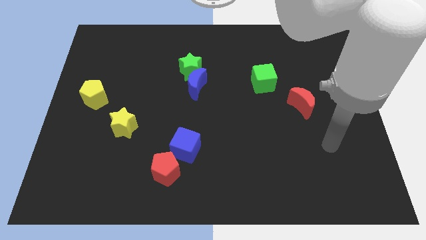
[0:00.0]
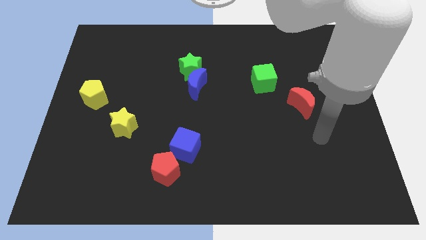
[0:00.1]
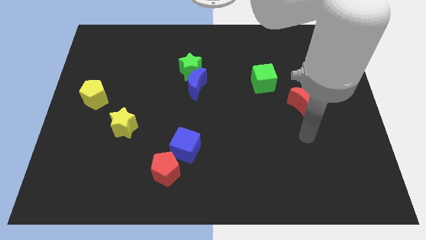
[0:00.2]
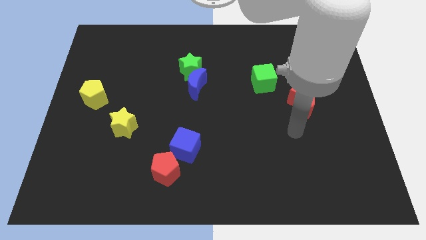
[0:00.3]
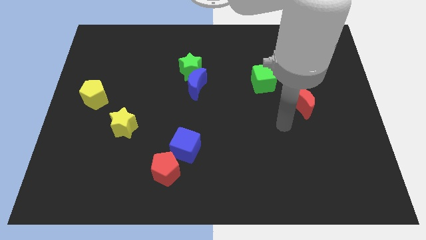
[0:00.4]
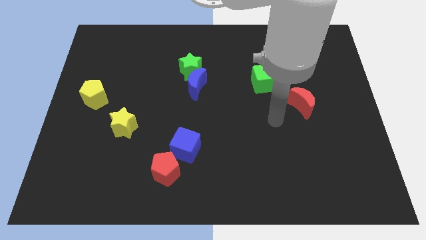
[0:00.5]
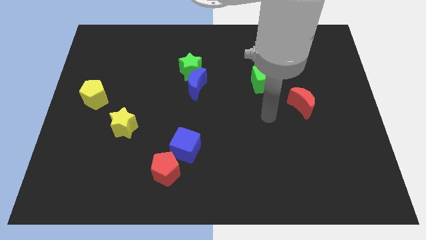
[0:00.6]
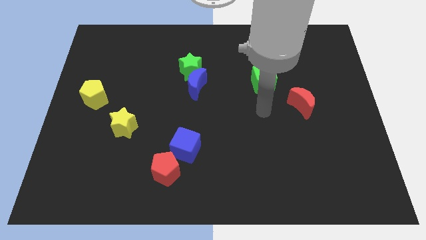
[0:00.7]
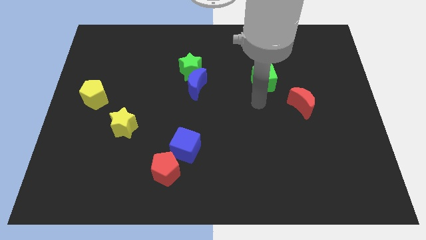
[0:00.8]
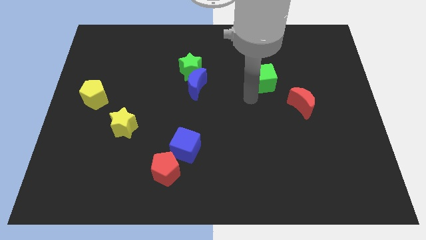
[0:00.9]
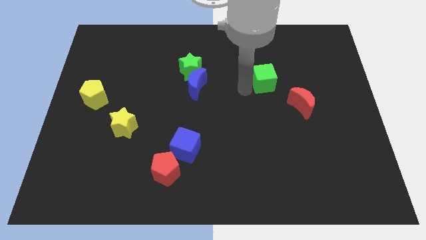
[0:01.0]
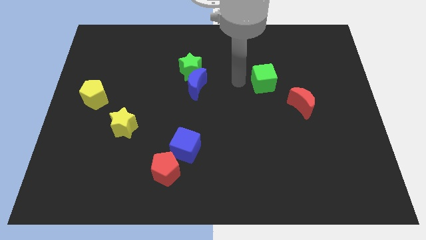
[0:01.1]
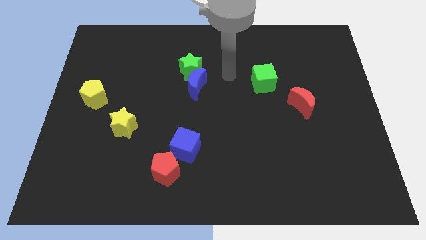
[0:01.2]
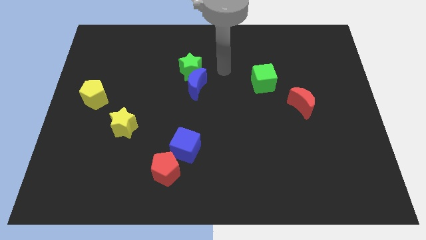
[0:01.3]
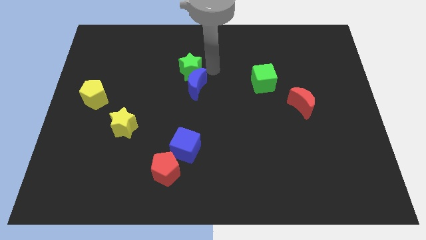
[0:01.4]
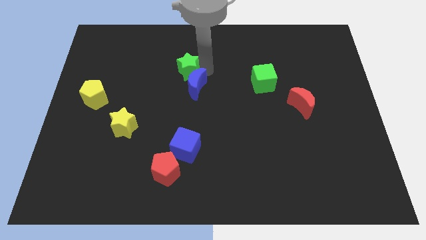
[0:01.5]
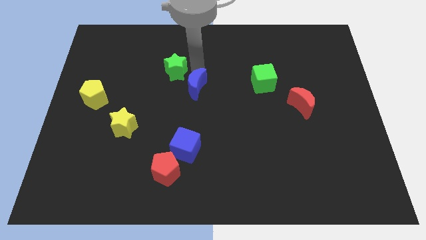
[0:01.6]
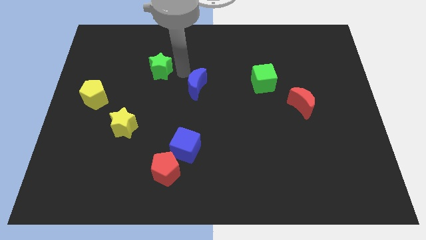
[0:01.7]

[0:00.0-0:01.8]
separate the blue moon from the green star

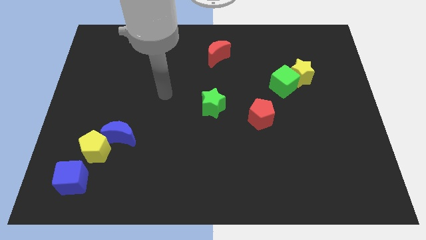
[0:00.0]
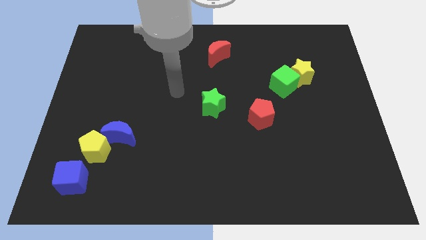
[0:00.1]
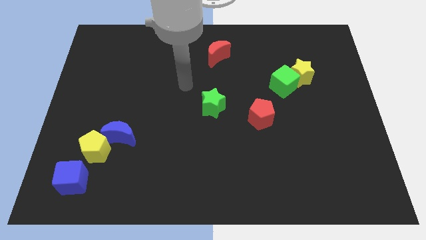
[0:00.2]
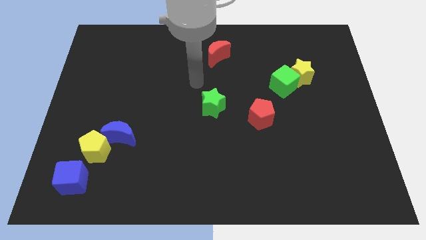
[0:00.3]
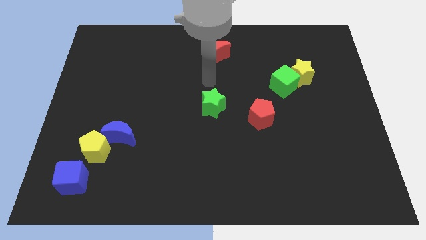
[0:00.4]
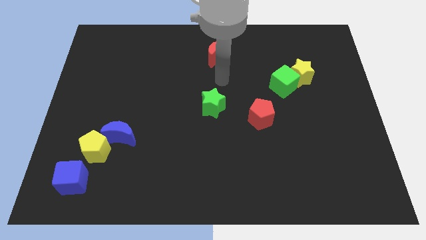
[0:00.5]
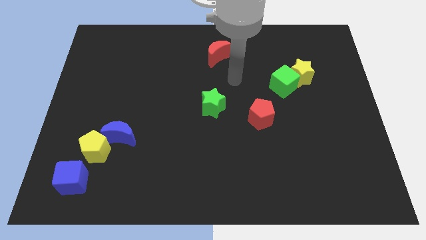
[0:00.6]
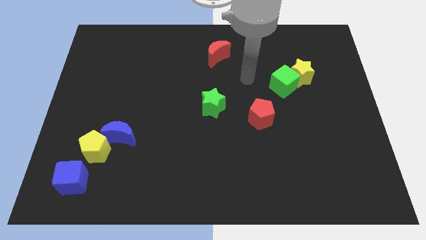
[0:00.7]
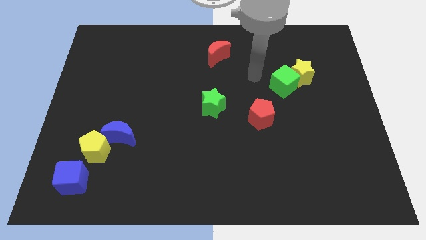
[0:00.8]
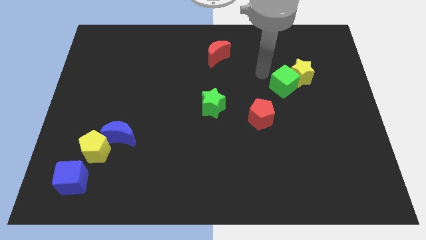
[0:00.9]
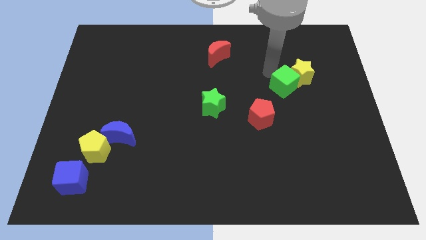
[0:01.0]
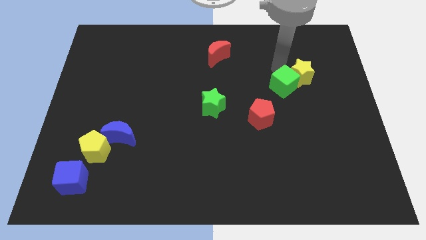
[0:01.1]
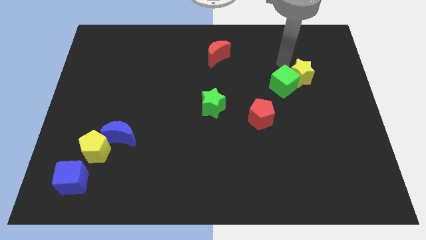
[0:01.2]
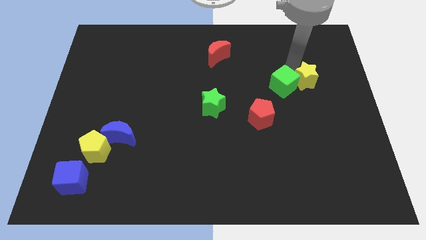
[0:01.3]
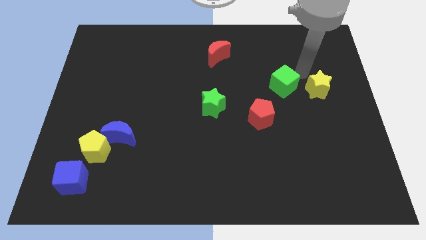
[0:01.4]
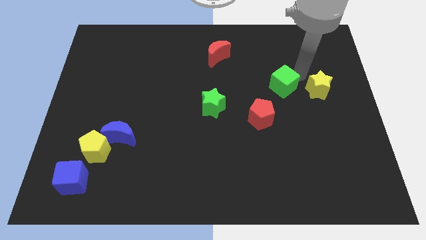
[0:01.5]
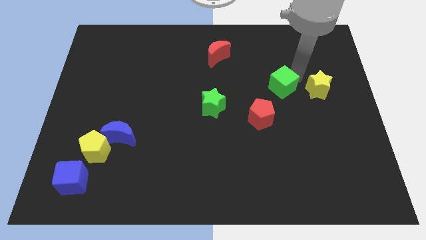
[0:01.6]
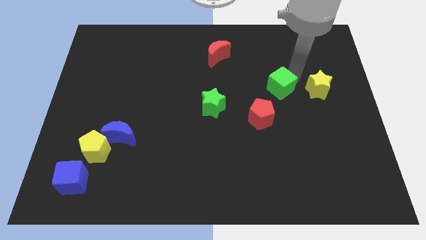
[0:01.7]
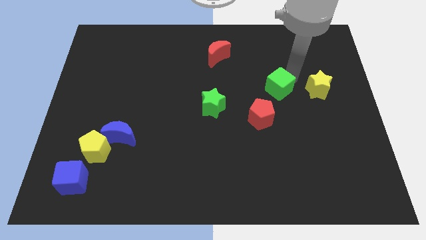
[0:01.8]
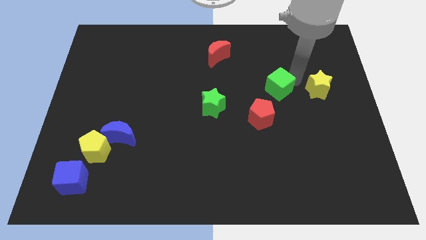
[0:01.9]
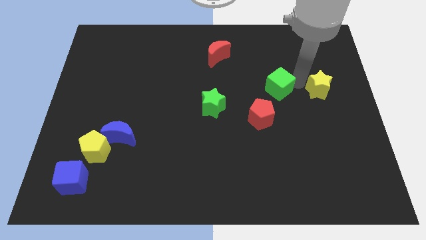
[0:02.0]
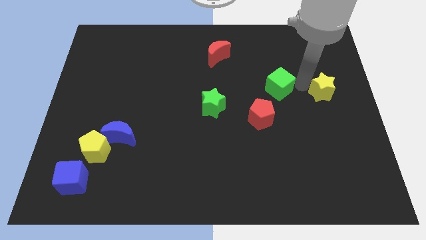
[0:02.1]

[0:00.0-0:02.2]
separate the green cube from the yellow star

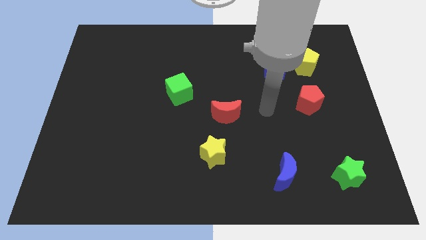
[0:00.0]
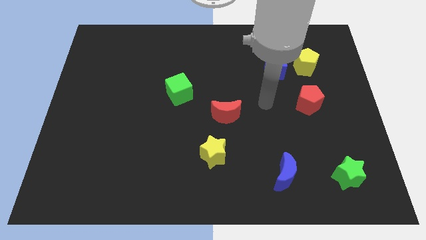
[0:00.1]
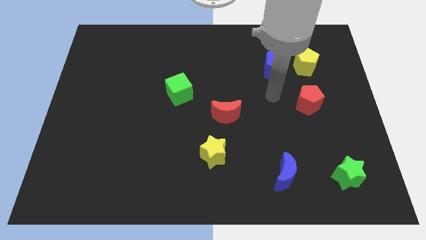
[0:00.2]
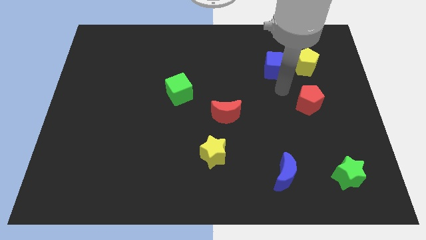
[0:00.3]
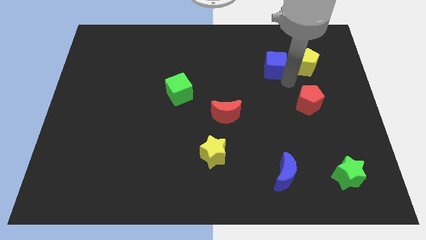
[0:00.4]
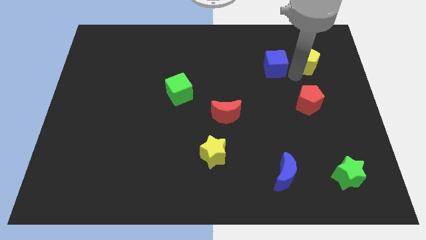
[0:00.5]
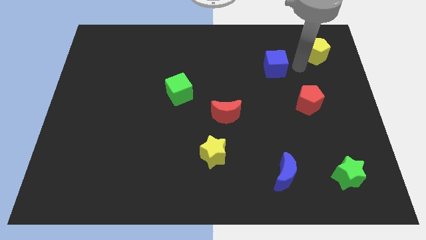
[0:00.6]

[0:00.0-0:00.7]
move the blue cube away from the yellow pentagon

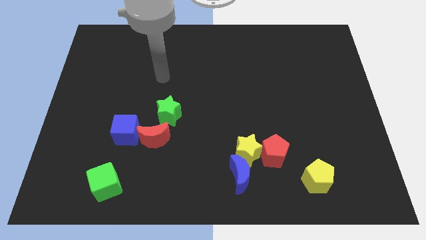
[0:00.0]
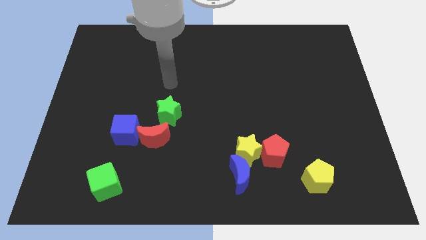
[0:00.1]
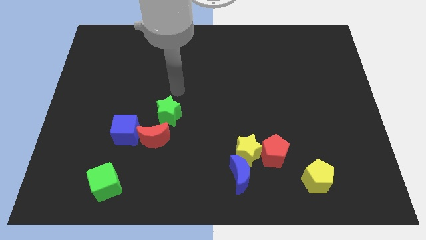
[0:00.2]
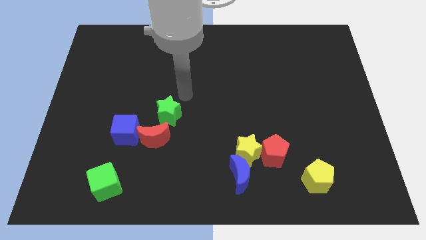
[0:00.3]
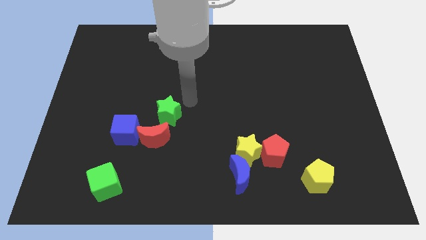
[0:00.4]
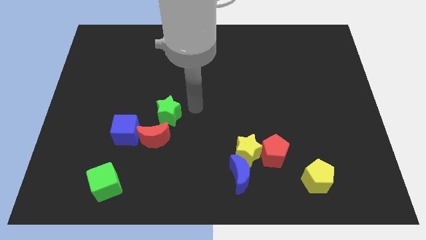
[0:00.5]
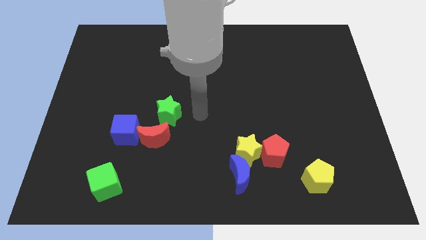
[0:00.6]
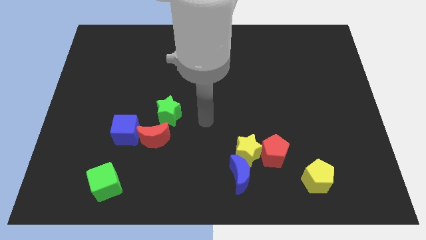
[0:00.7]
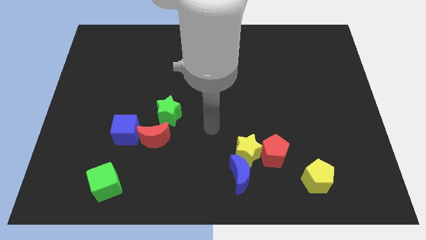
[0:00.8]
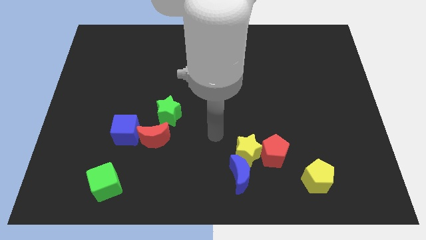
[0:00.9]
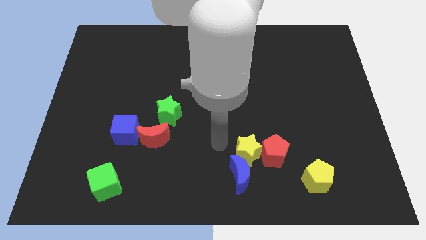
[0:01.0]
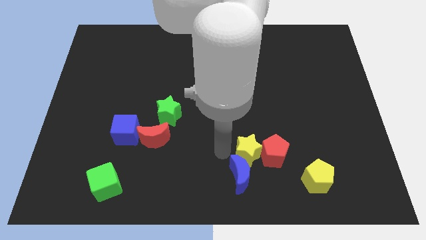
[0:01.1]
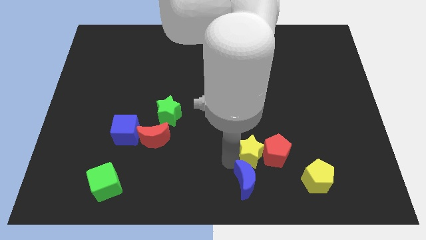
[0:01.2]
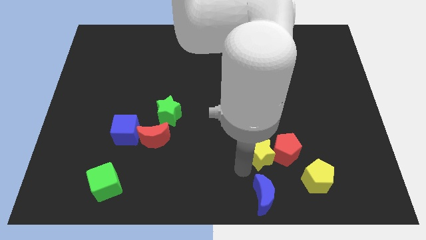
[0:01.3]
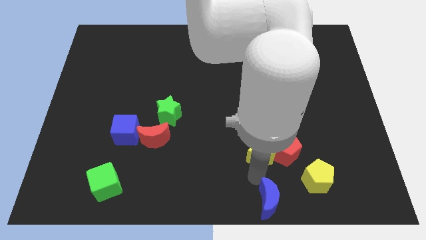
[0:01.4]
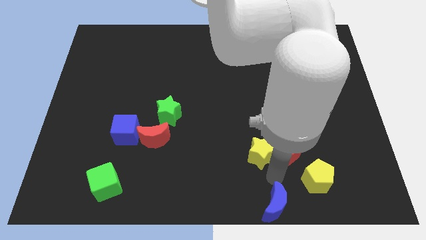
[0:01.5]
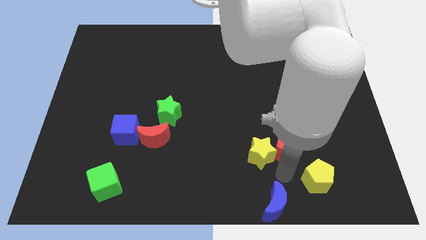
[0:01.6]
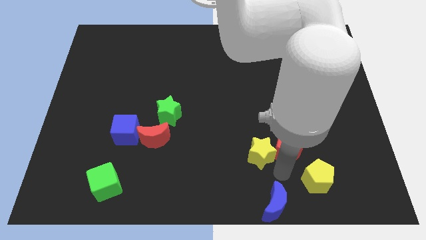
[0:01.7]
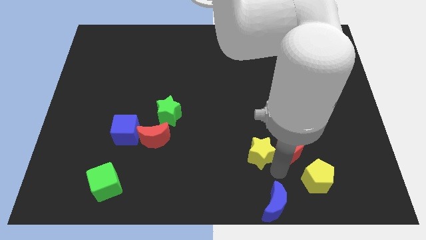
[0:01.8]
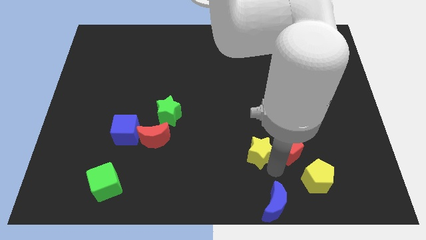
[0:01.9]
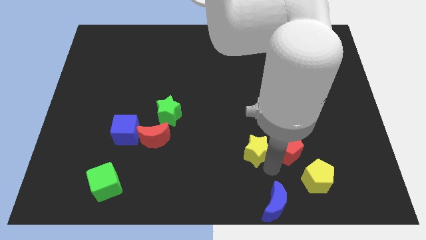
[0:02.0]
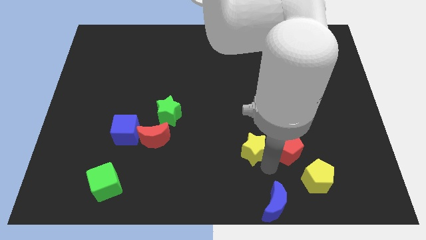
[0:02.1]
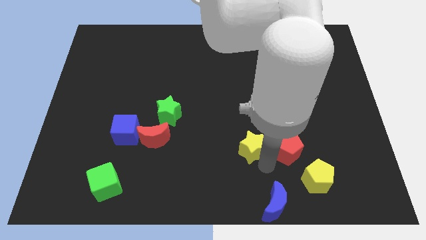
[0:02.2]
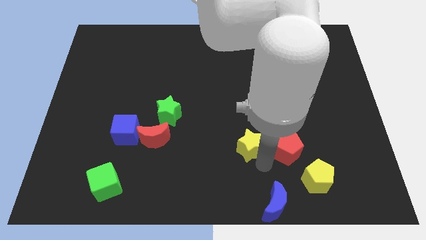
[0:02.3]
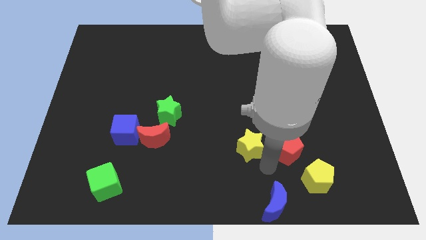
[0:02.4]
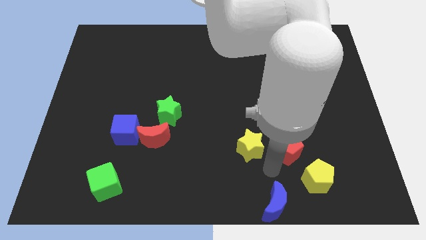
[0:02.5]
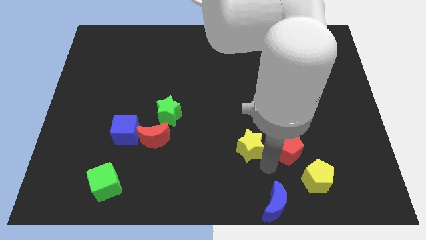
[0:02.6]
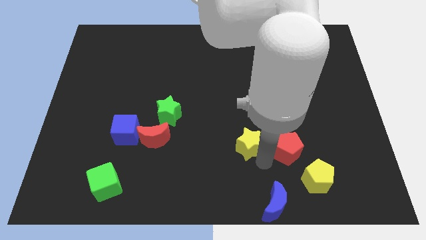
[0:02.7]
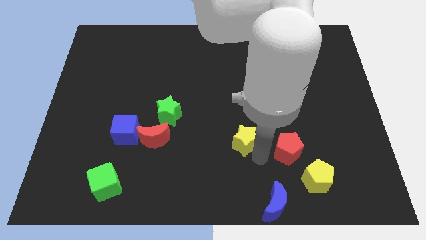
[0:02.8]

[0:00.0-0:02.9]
pull the yellow star apart from the red pentagon and blue moon

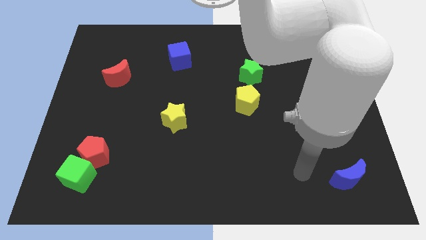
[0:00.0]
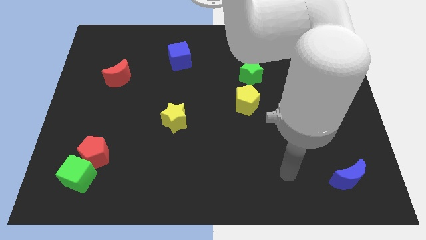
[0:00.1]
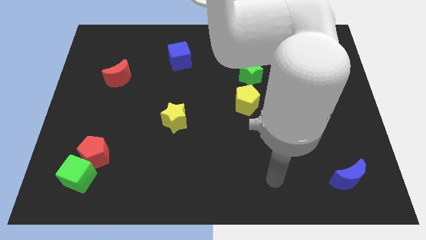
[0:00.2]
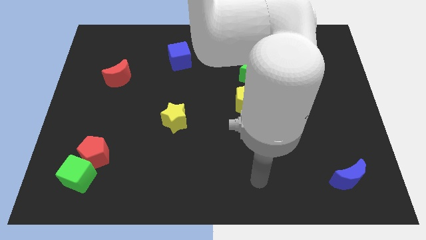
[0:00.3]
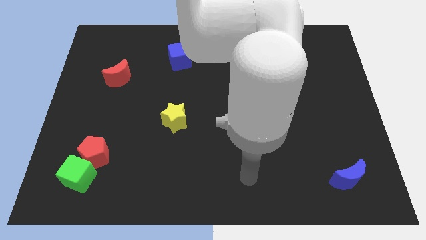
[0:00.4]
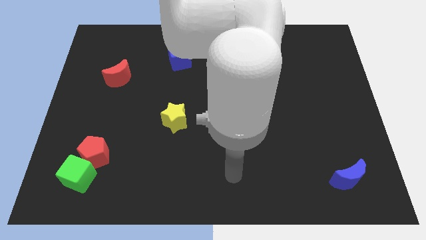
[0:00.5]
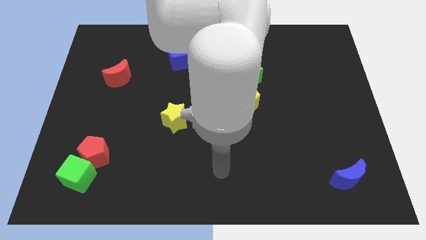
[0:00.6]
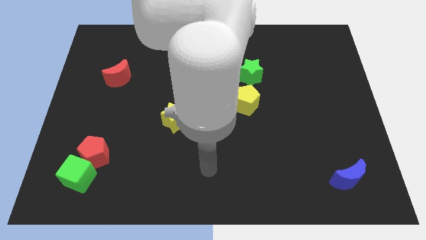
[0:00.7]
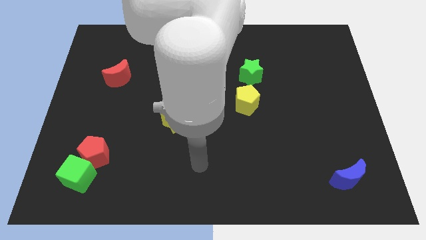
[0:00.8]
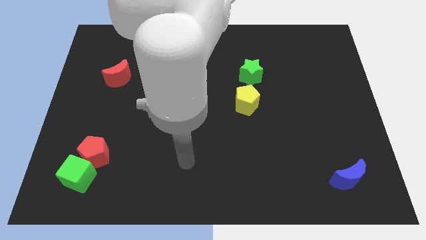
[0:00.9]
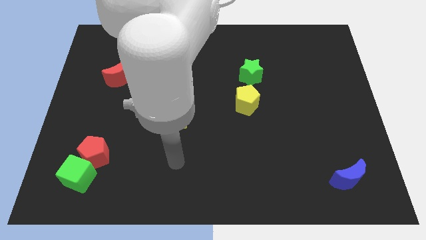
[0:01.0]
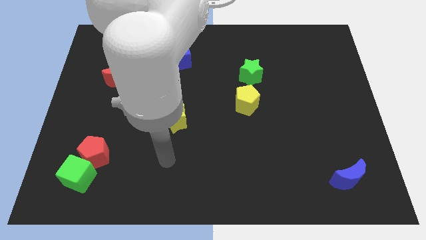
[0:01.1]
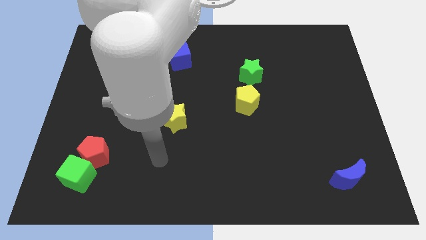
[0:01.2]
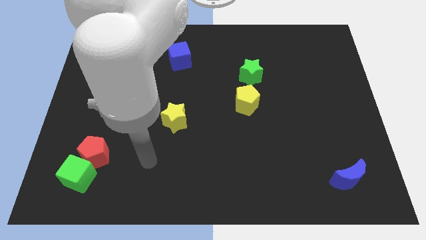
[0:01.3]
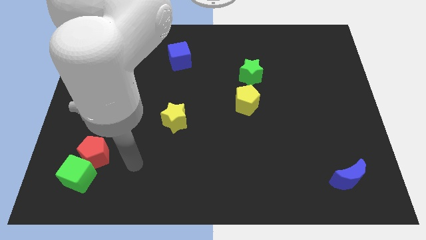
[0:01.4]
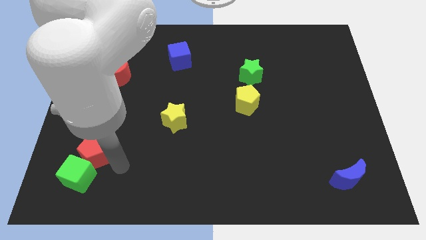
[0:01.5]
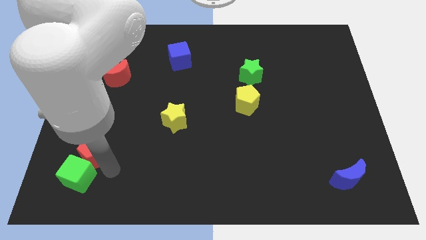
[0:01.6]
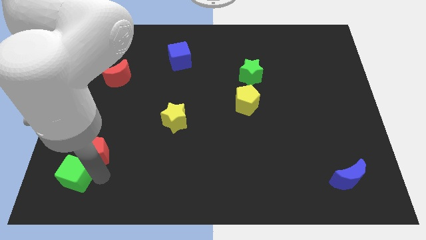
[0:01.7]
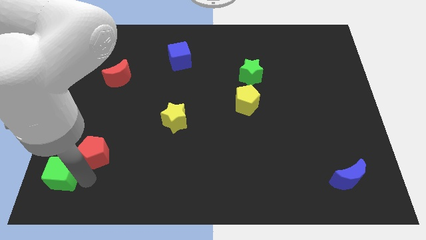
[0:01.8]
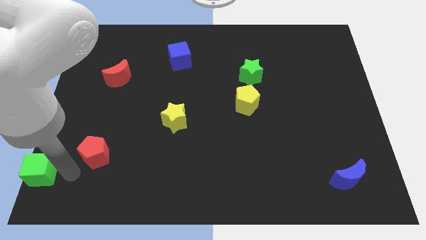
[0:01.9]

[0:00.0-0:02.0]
separate the red pentagon from the green cube
